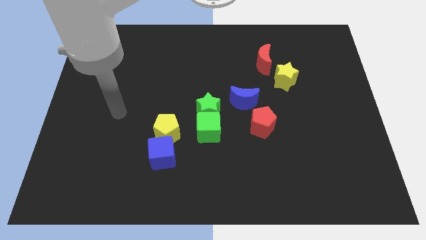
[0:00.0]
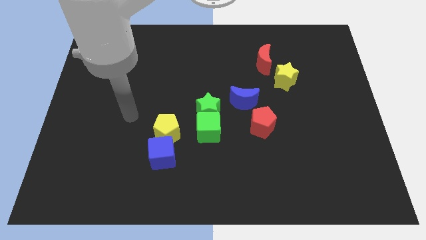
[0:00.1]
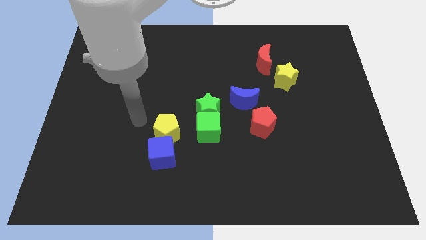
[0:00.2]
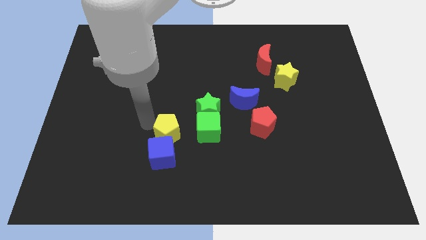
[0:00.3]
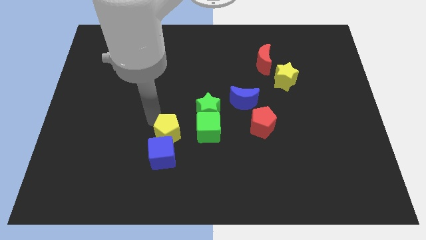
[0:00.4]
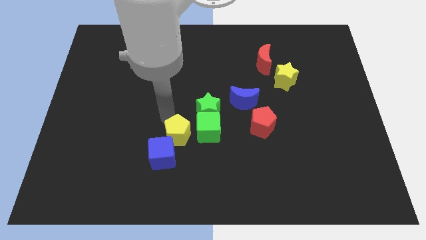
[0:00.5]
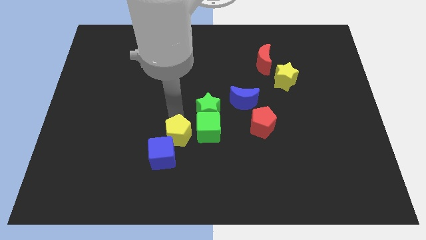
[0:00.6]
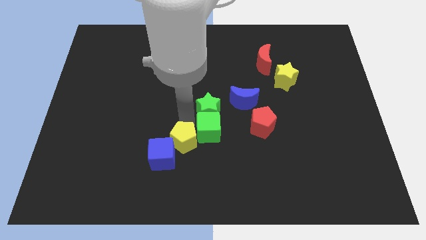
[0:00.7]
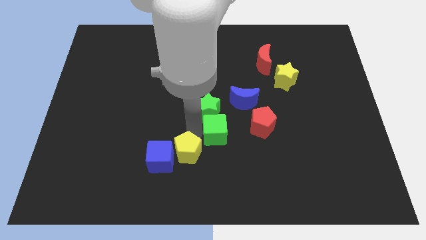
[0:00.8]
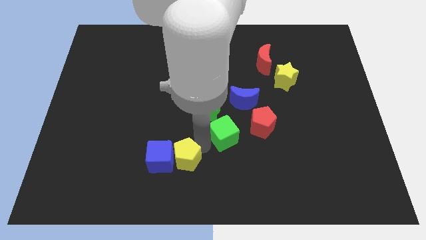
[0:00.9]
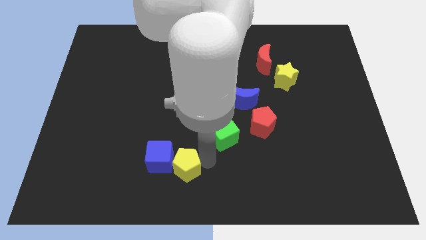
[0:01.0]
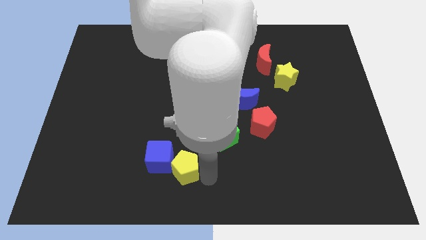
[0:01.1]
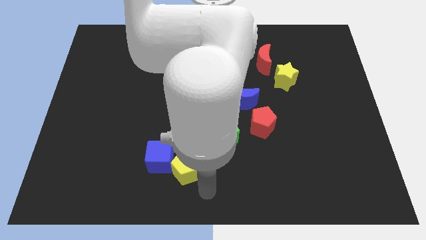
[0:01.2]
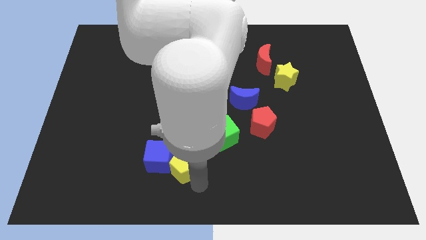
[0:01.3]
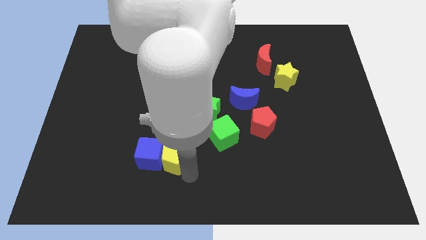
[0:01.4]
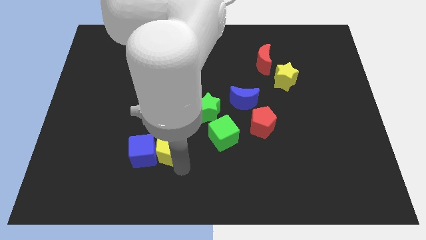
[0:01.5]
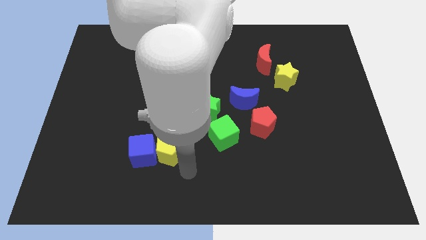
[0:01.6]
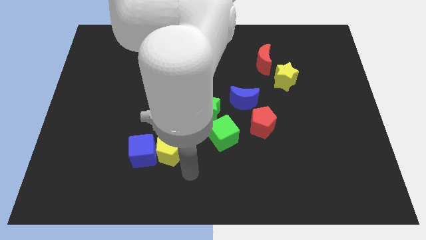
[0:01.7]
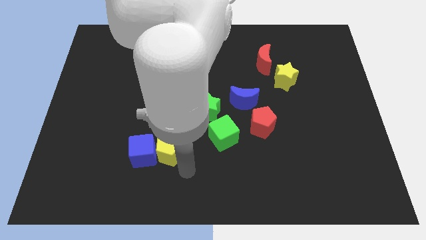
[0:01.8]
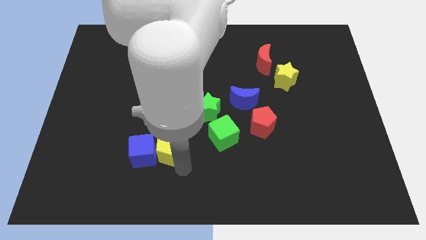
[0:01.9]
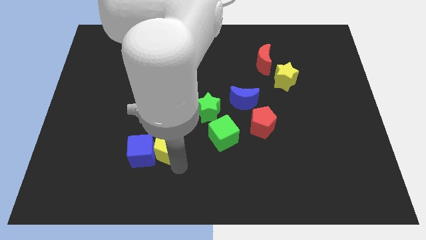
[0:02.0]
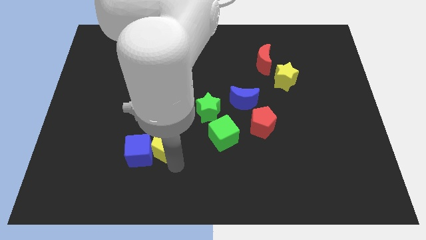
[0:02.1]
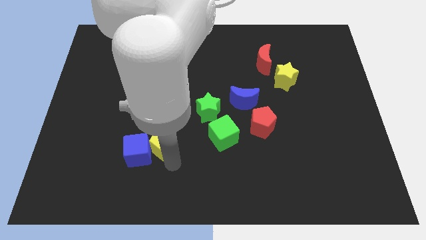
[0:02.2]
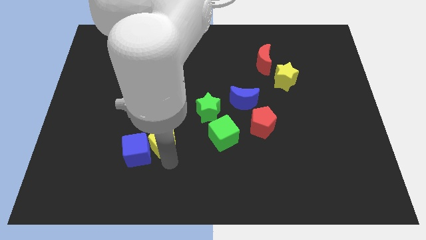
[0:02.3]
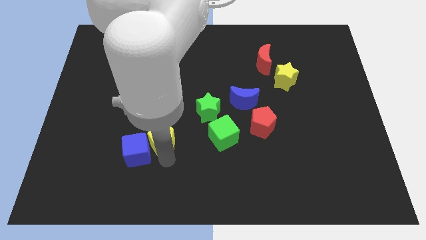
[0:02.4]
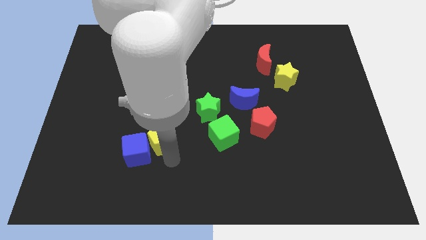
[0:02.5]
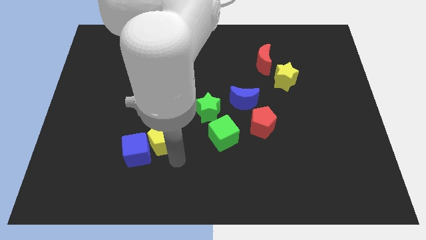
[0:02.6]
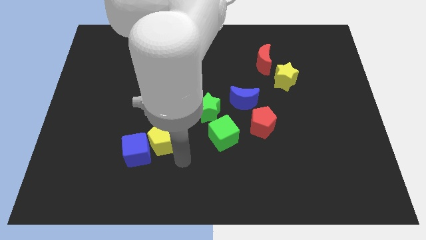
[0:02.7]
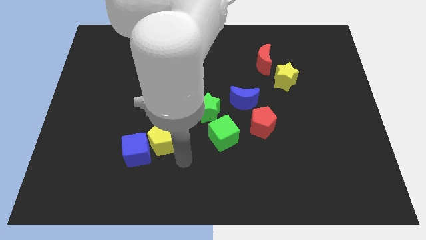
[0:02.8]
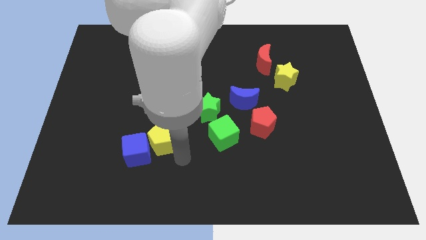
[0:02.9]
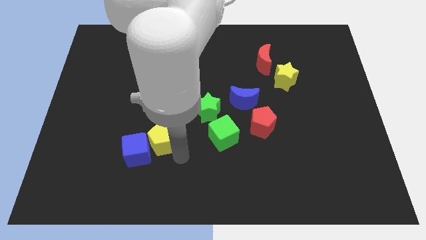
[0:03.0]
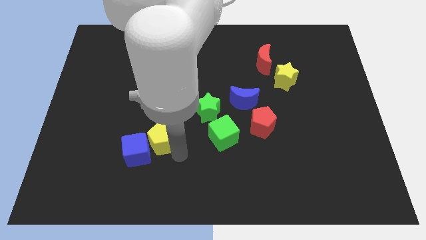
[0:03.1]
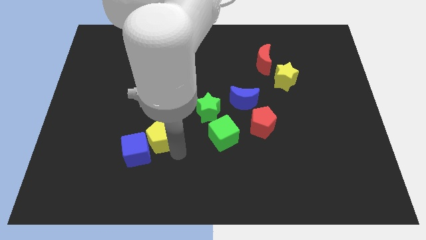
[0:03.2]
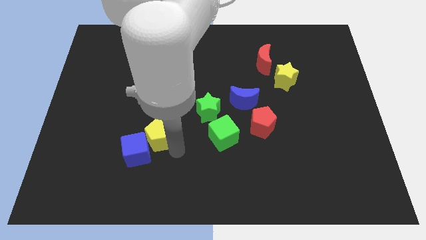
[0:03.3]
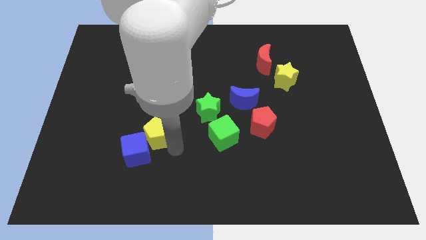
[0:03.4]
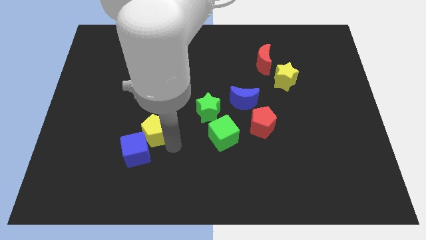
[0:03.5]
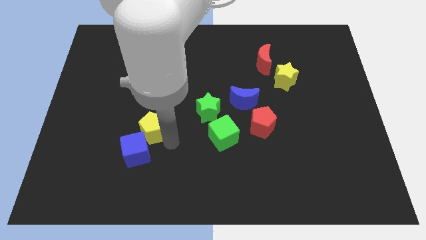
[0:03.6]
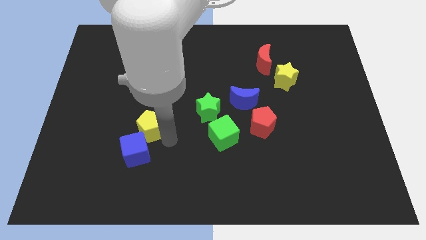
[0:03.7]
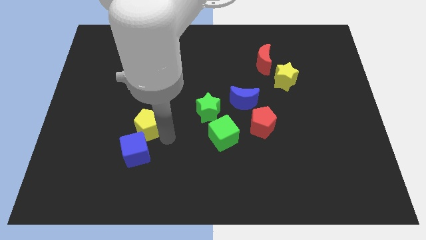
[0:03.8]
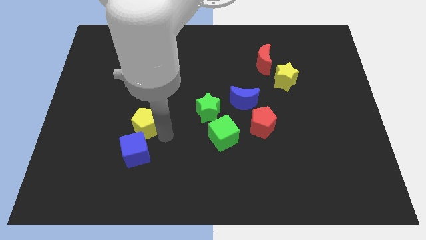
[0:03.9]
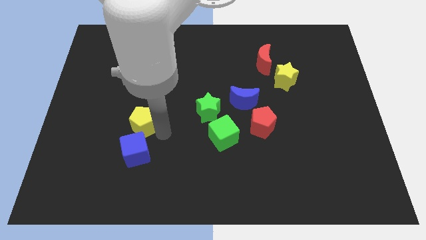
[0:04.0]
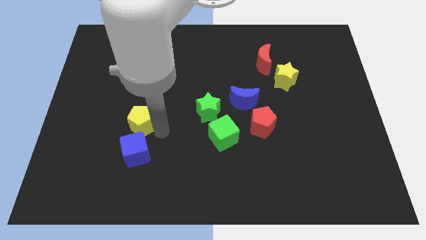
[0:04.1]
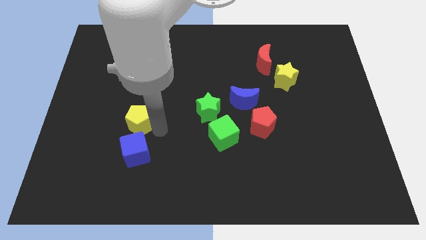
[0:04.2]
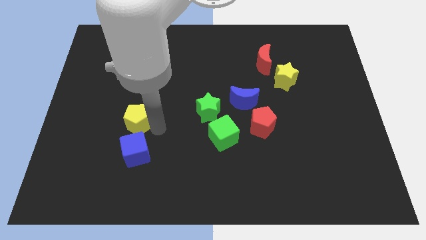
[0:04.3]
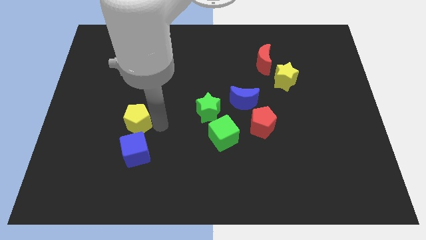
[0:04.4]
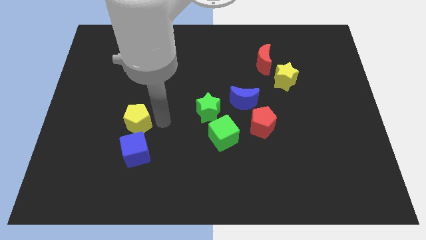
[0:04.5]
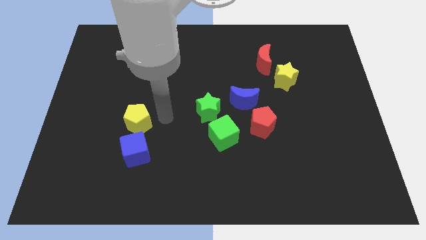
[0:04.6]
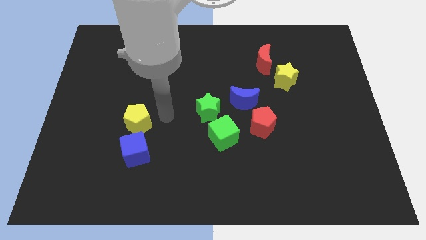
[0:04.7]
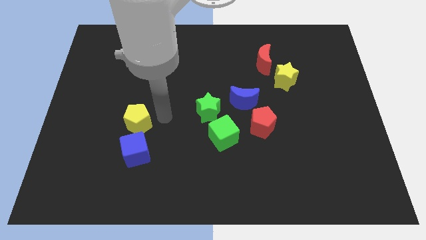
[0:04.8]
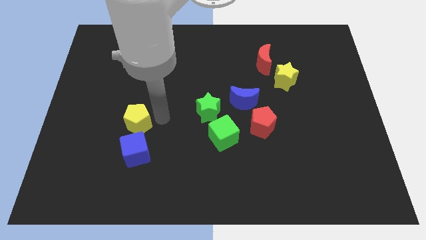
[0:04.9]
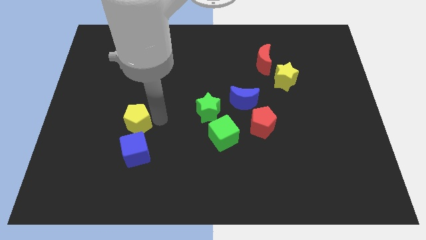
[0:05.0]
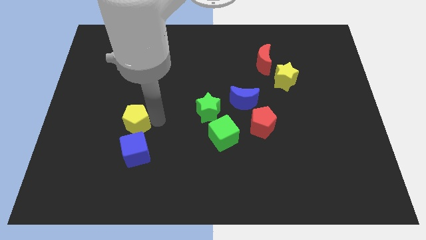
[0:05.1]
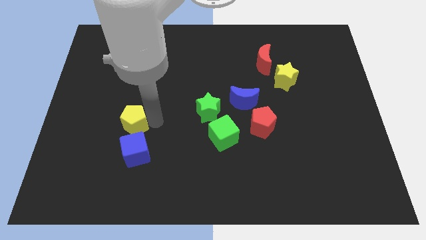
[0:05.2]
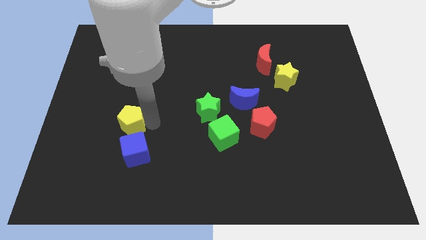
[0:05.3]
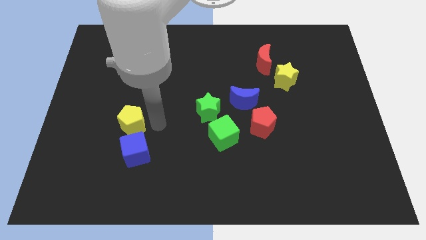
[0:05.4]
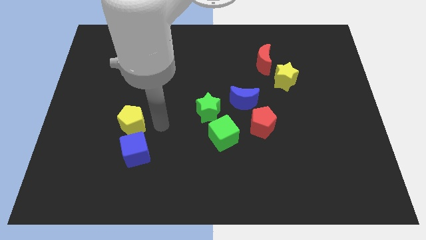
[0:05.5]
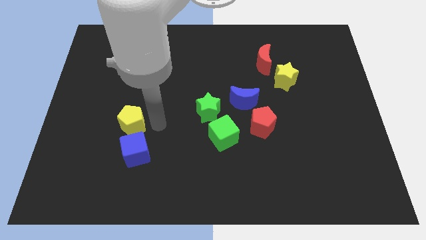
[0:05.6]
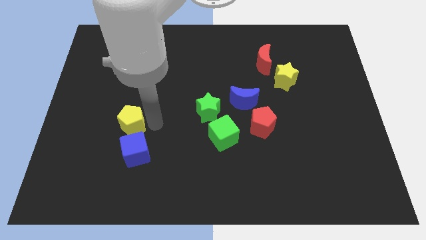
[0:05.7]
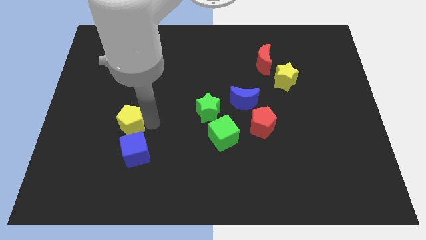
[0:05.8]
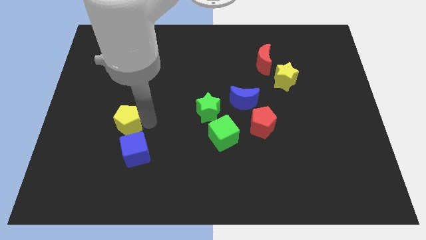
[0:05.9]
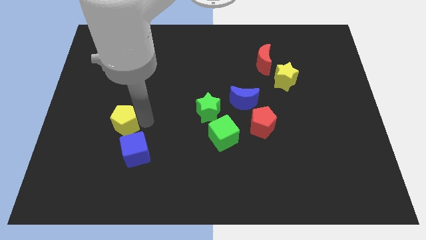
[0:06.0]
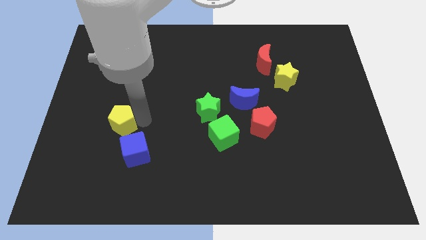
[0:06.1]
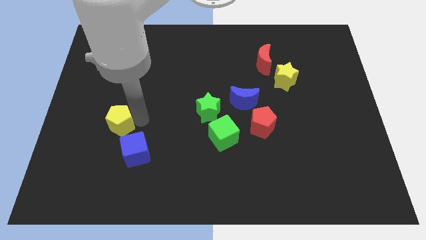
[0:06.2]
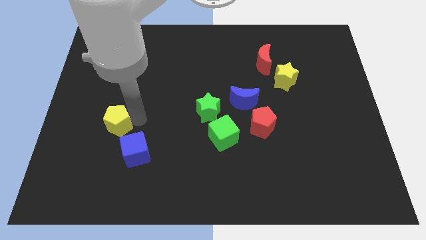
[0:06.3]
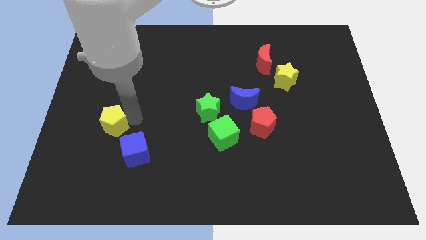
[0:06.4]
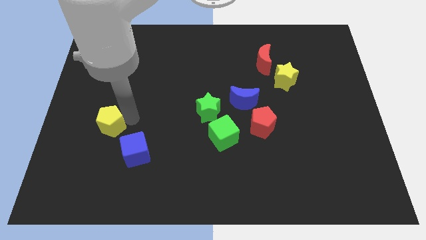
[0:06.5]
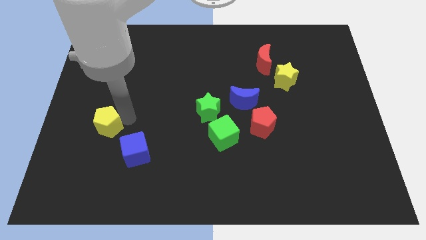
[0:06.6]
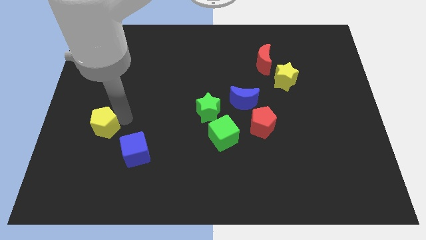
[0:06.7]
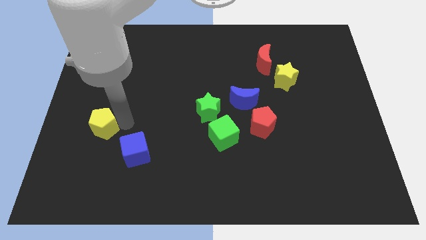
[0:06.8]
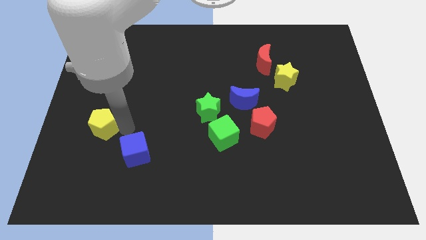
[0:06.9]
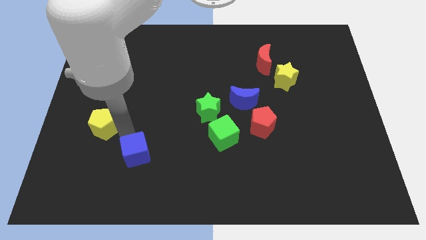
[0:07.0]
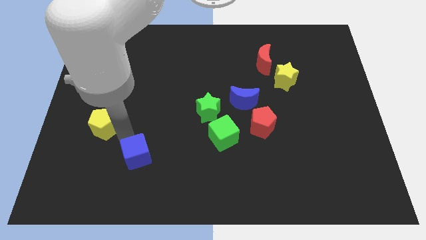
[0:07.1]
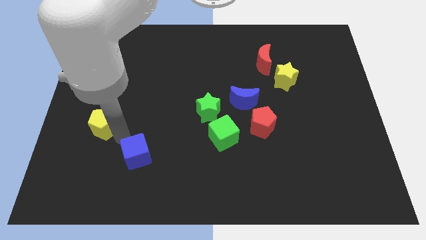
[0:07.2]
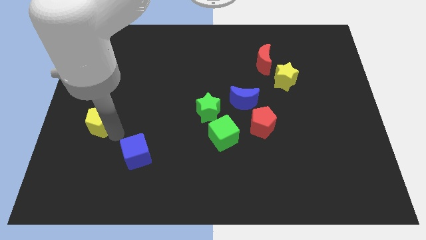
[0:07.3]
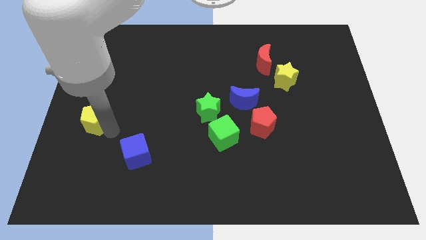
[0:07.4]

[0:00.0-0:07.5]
move the yellow pentagon to the center left

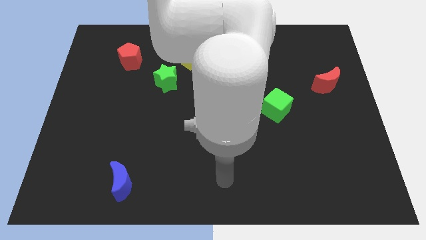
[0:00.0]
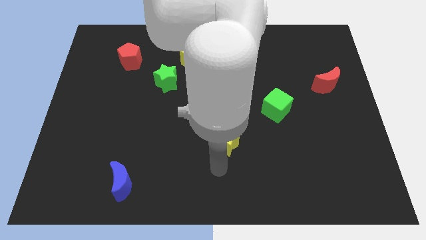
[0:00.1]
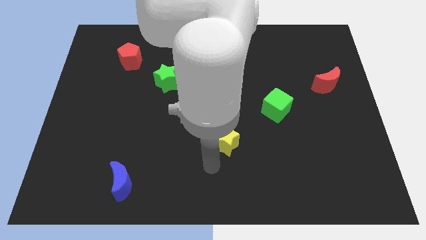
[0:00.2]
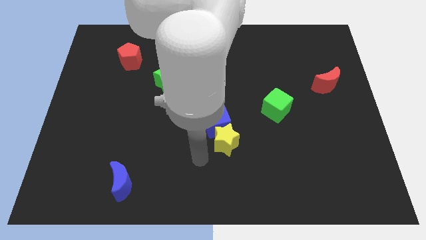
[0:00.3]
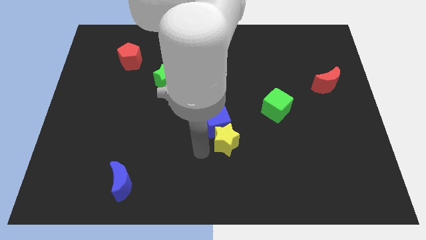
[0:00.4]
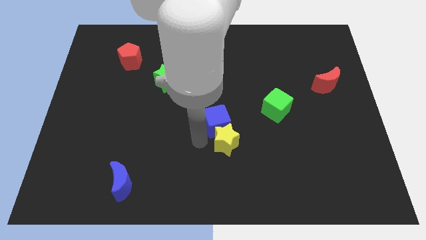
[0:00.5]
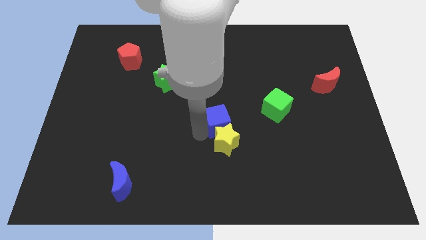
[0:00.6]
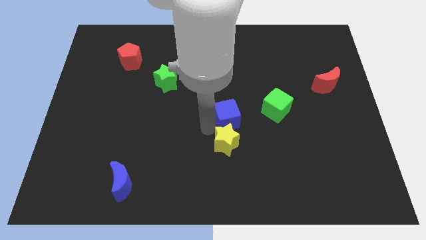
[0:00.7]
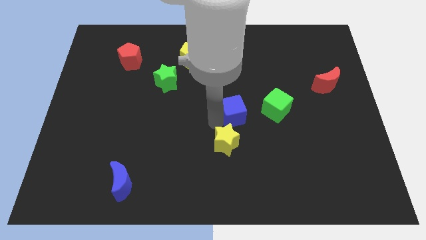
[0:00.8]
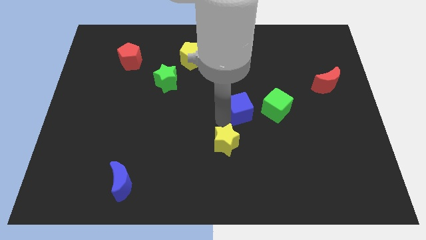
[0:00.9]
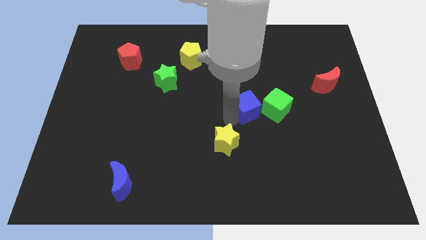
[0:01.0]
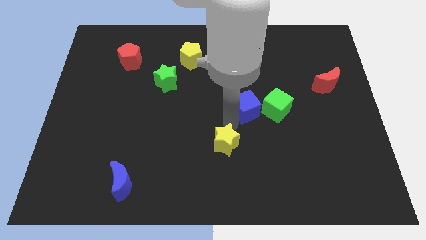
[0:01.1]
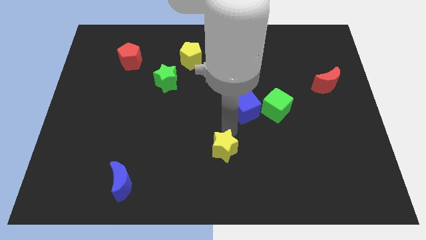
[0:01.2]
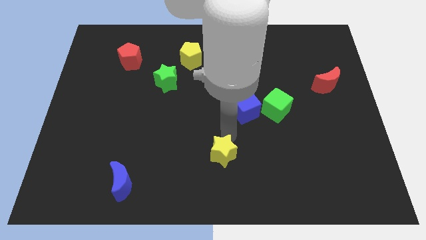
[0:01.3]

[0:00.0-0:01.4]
move the yellow star to the bottom side
